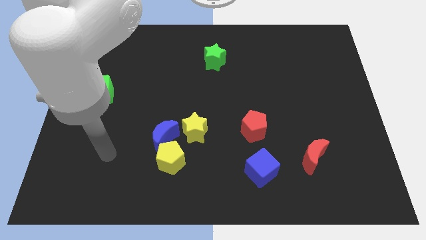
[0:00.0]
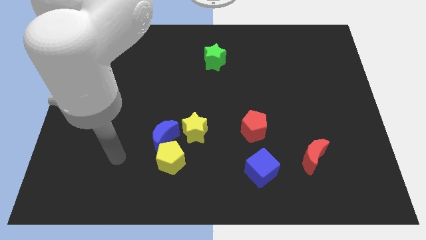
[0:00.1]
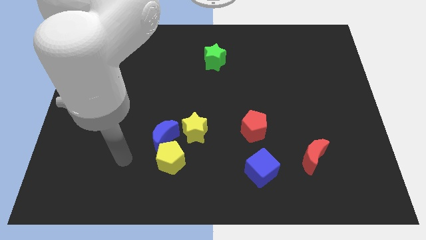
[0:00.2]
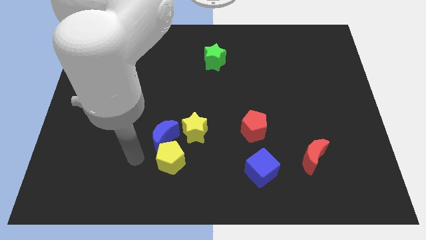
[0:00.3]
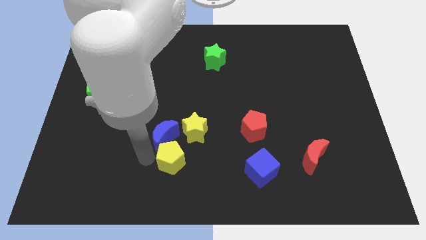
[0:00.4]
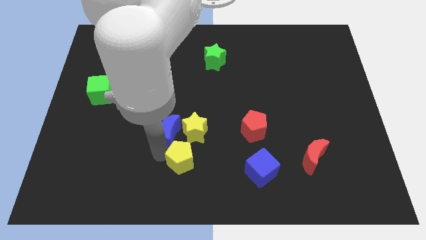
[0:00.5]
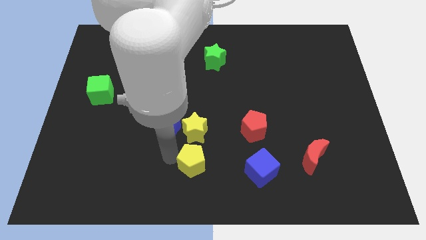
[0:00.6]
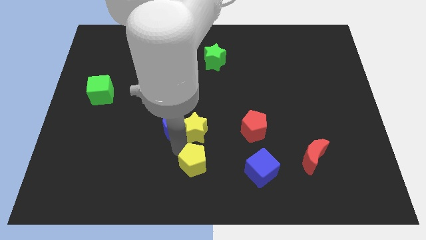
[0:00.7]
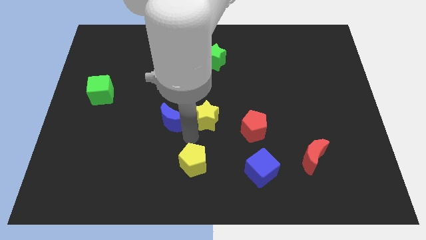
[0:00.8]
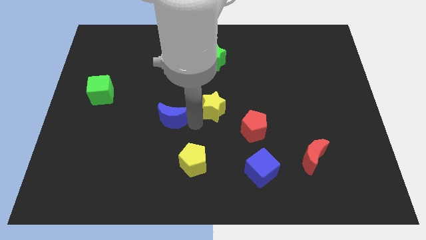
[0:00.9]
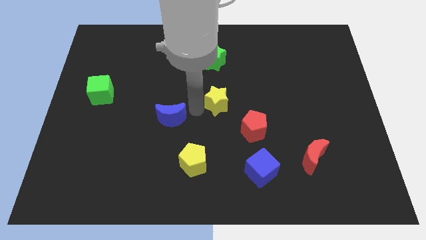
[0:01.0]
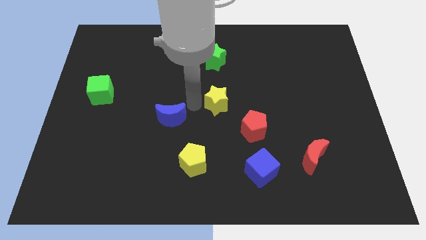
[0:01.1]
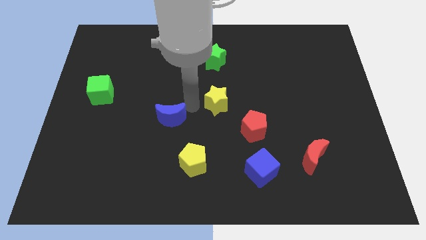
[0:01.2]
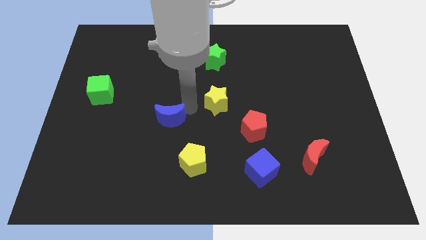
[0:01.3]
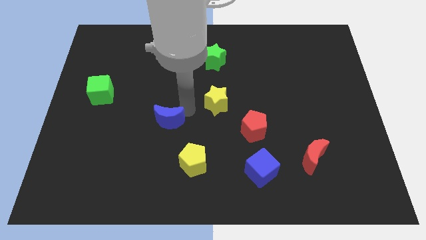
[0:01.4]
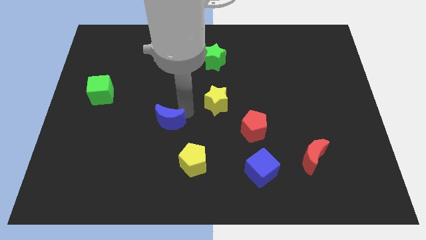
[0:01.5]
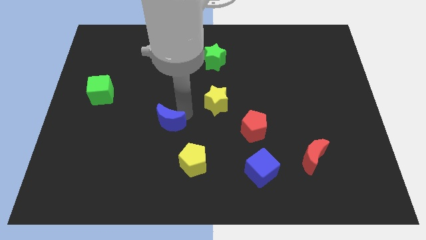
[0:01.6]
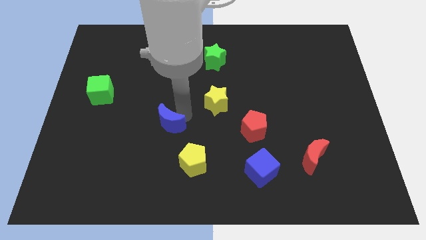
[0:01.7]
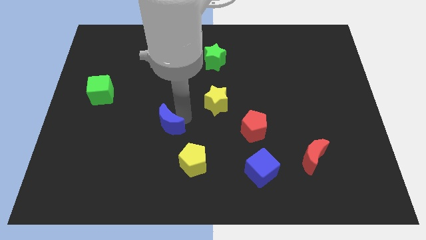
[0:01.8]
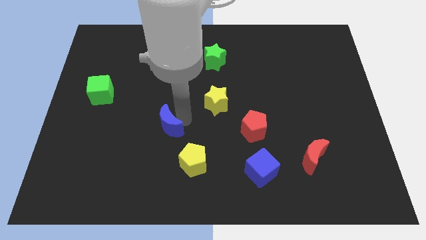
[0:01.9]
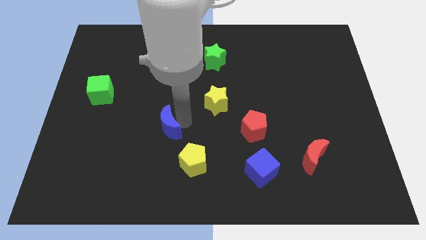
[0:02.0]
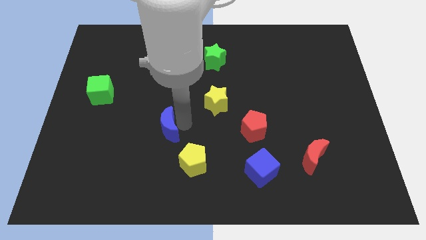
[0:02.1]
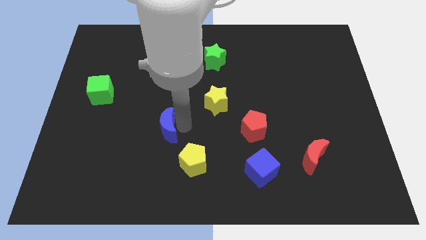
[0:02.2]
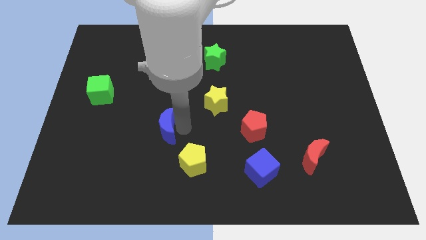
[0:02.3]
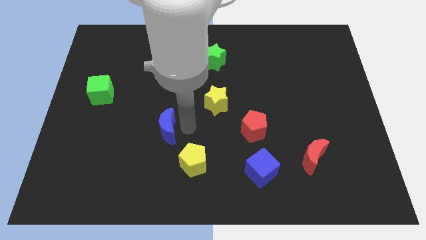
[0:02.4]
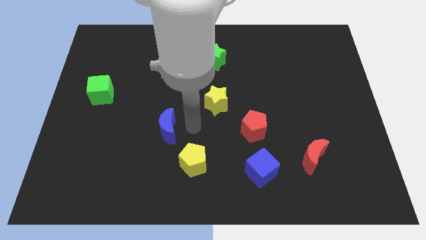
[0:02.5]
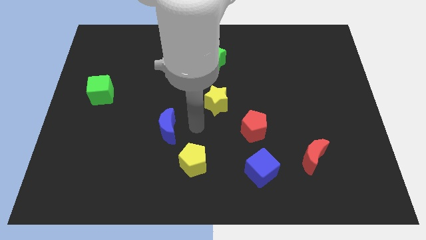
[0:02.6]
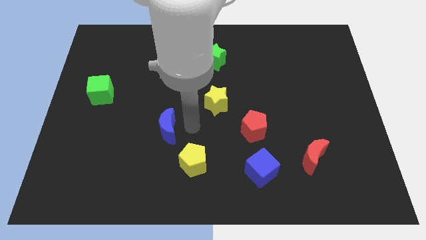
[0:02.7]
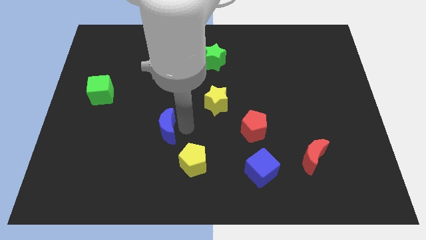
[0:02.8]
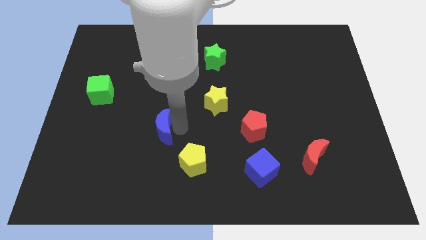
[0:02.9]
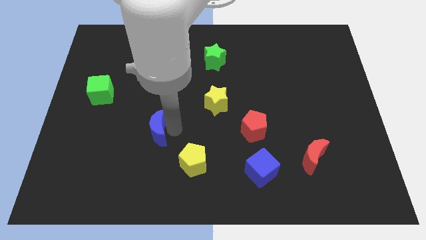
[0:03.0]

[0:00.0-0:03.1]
separate the blue moon from the yellow pentagon and yellow star

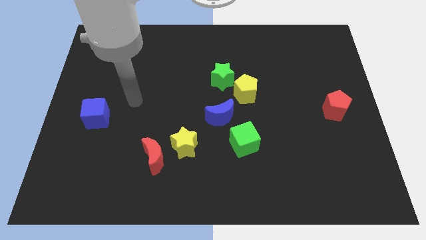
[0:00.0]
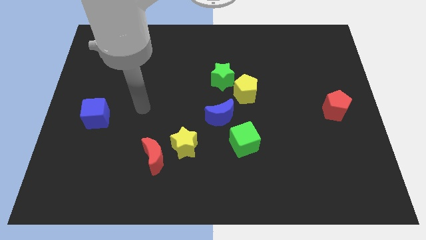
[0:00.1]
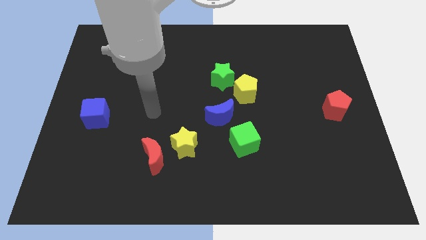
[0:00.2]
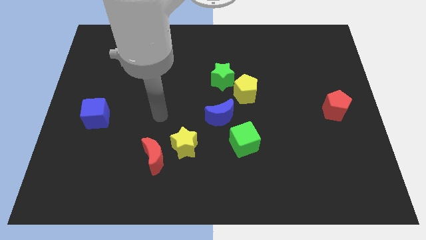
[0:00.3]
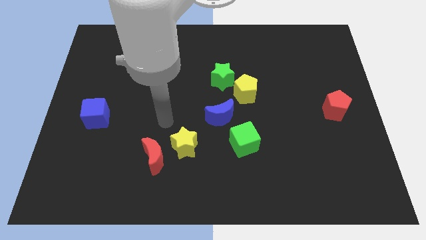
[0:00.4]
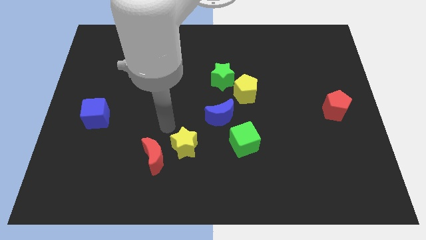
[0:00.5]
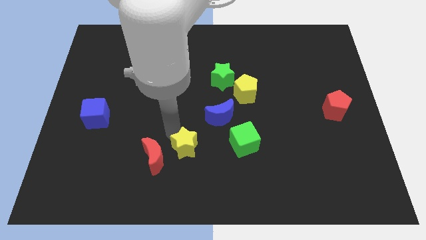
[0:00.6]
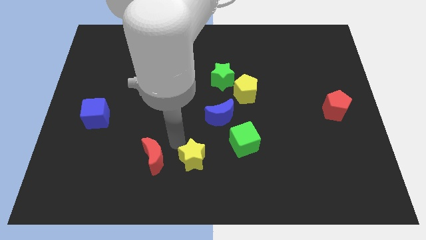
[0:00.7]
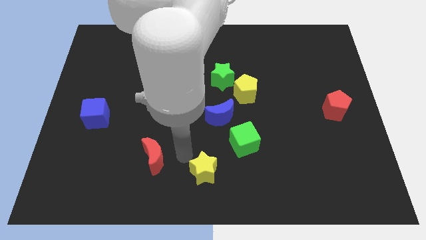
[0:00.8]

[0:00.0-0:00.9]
move the red moon away from the yellow star

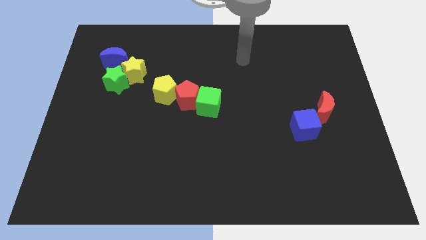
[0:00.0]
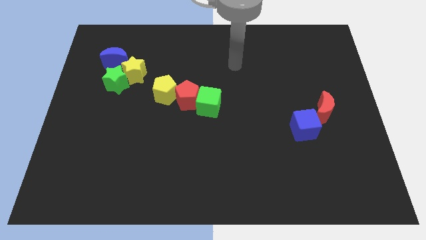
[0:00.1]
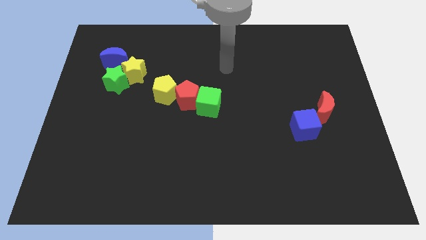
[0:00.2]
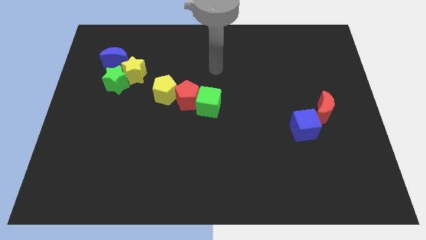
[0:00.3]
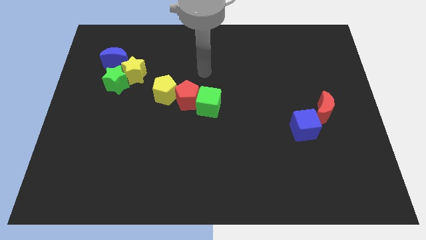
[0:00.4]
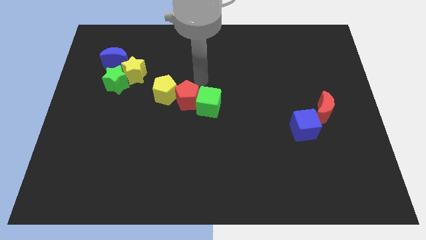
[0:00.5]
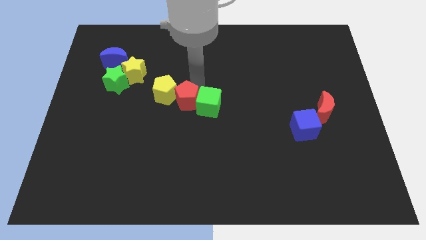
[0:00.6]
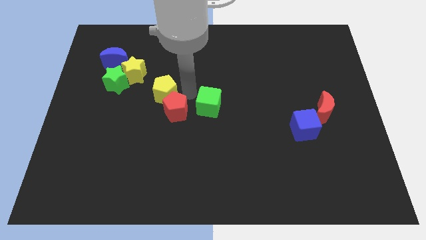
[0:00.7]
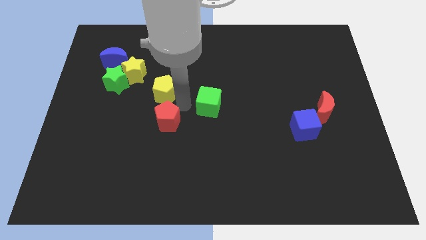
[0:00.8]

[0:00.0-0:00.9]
move the green cube away from the red pentagon

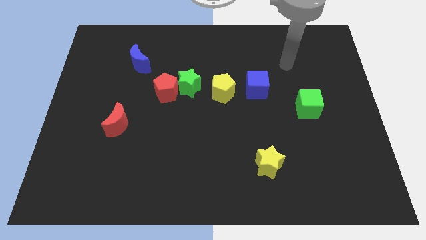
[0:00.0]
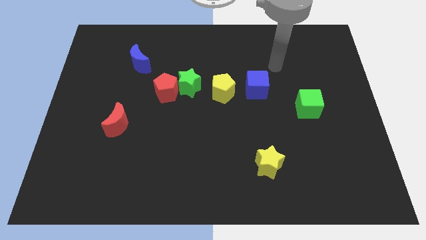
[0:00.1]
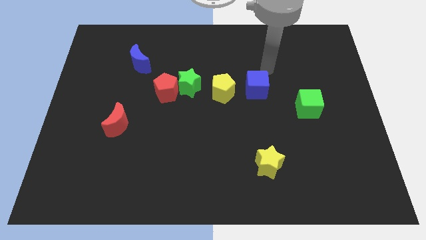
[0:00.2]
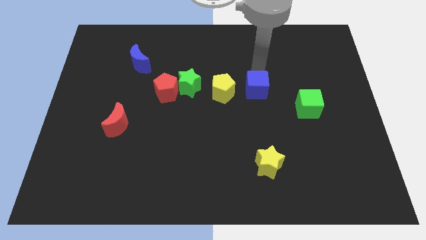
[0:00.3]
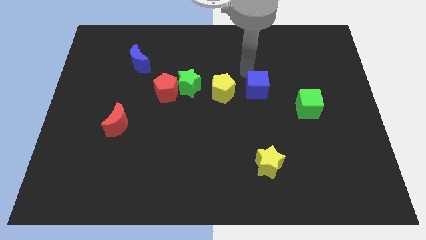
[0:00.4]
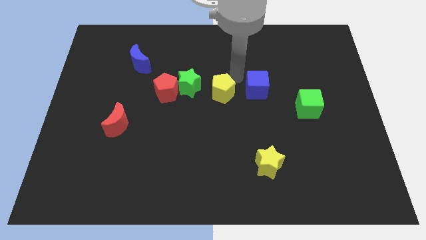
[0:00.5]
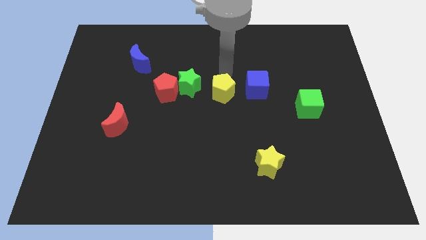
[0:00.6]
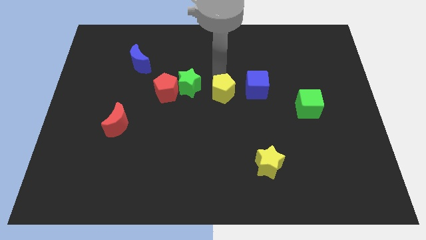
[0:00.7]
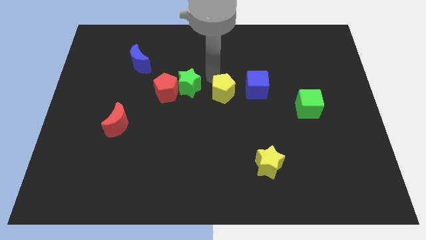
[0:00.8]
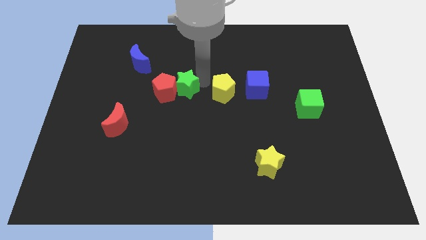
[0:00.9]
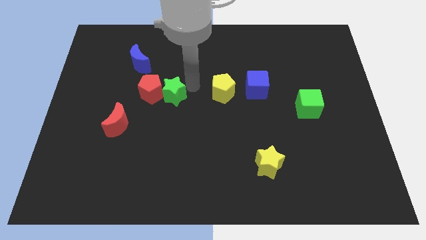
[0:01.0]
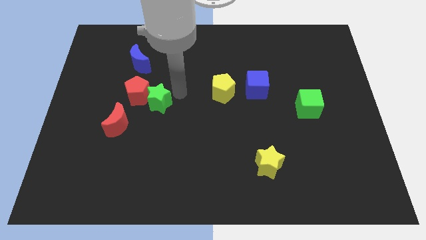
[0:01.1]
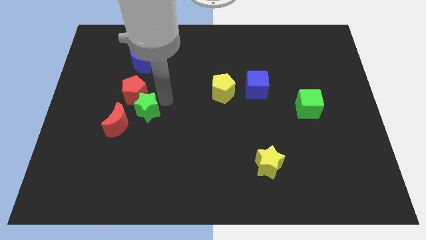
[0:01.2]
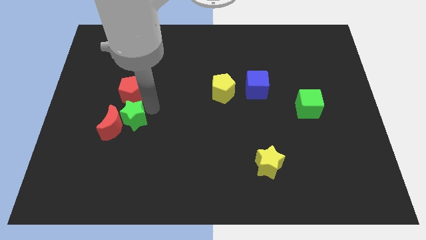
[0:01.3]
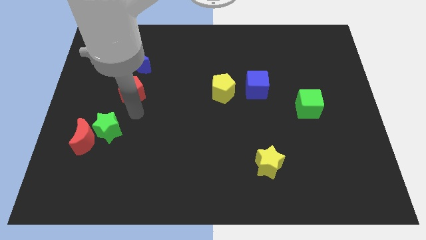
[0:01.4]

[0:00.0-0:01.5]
move the red pentagon away from the green star

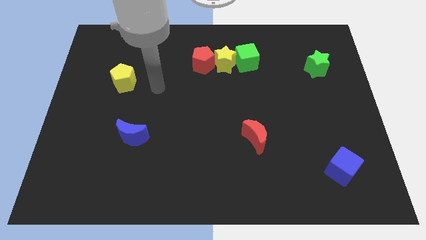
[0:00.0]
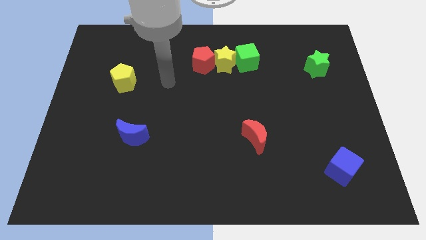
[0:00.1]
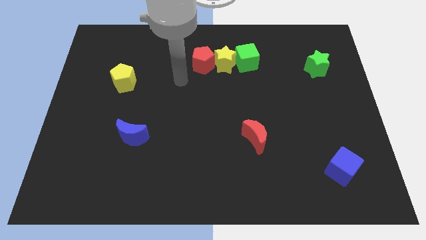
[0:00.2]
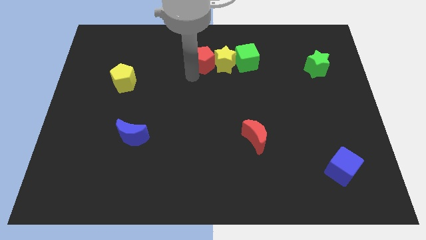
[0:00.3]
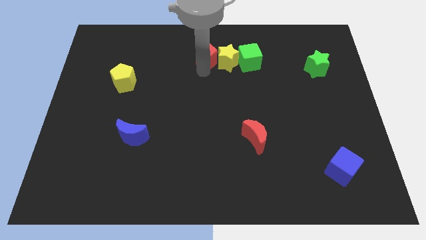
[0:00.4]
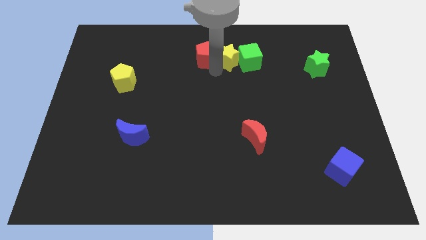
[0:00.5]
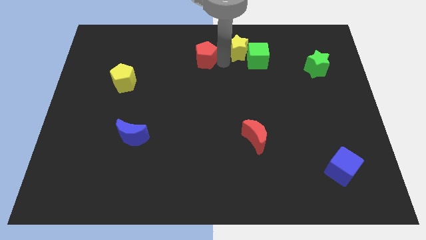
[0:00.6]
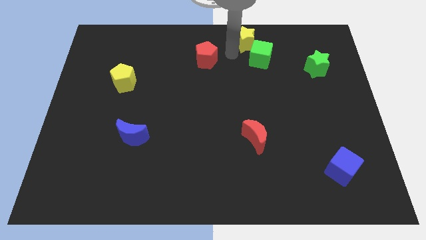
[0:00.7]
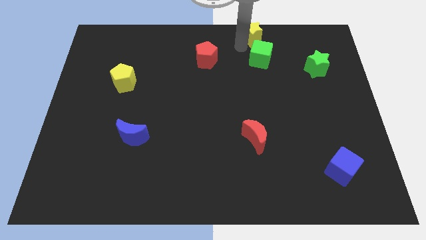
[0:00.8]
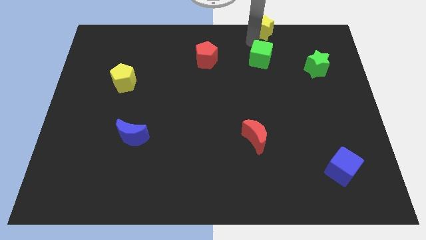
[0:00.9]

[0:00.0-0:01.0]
pull the green cube apart from the yellow star

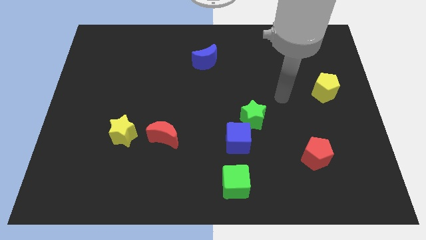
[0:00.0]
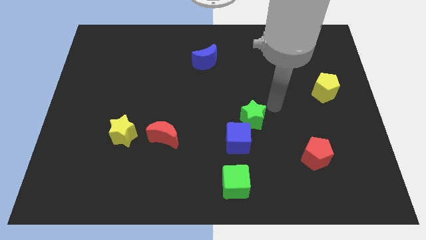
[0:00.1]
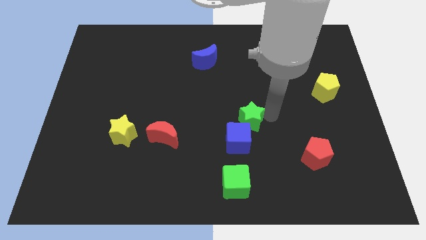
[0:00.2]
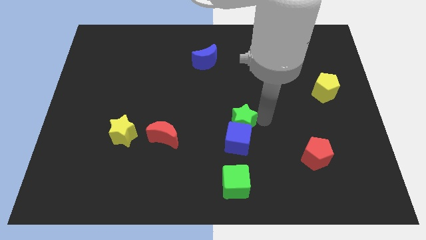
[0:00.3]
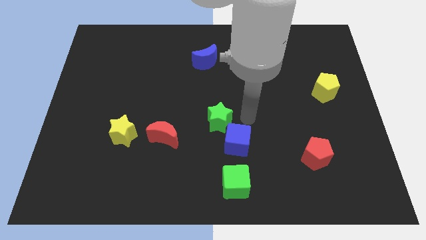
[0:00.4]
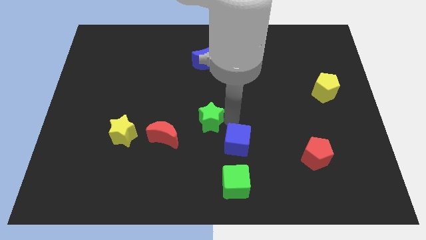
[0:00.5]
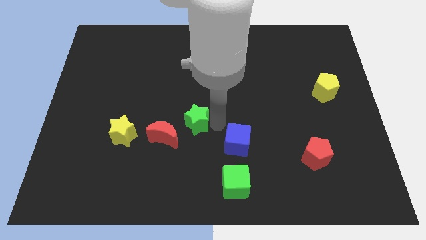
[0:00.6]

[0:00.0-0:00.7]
move the blue cube away from the green star

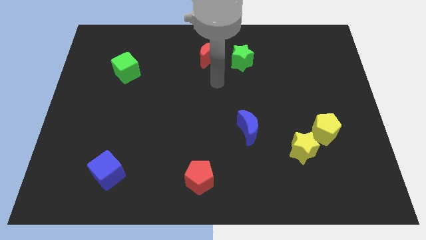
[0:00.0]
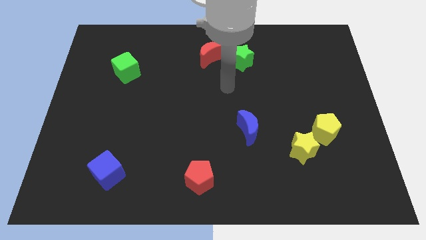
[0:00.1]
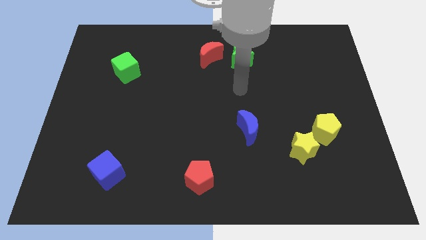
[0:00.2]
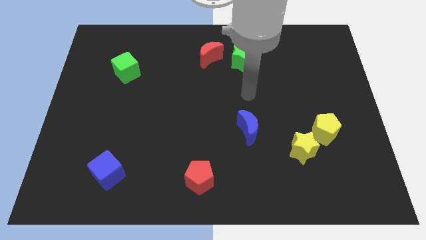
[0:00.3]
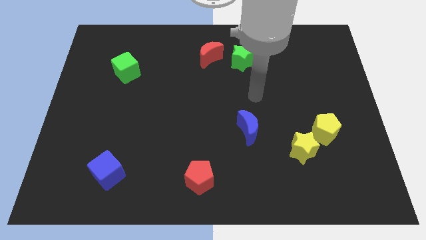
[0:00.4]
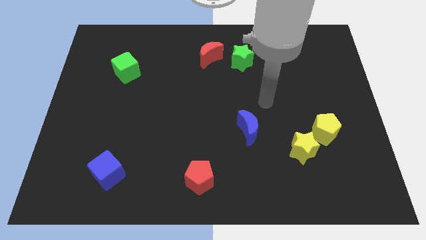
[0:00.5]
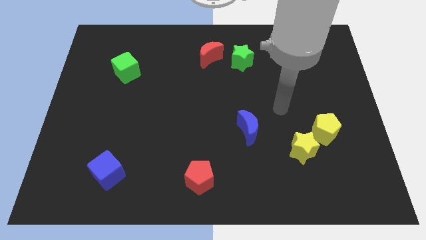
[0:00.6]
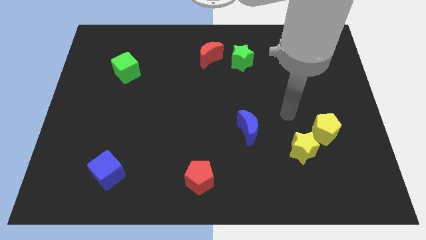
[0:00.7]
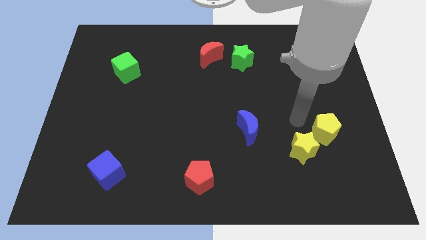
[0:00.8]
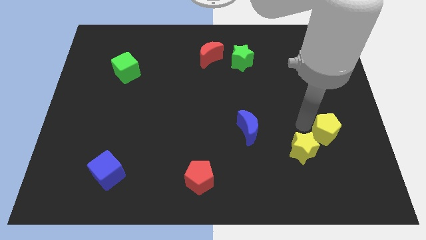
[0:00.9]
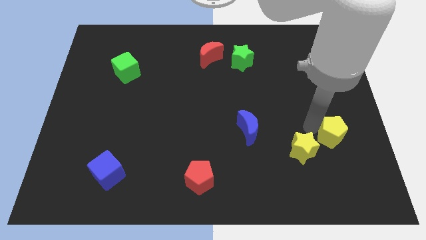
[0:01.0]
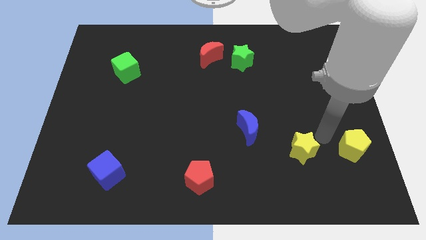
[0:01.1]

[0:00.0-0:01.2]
pull the yellow star apart from the yellow pentagon
